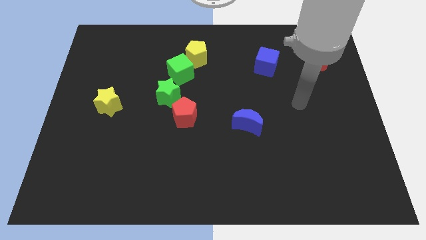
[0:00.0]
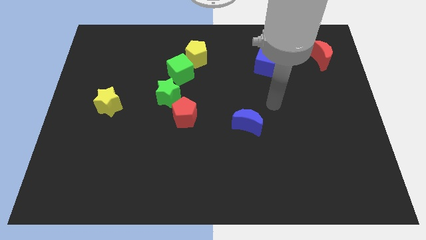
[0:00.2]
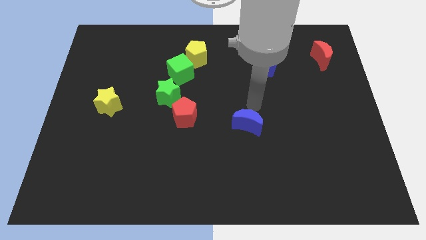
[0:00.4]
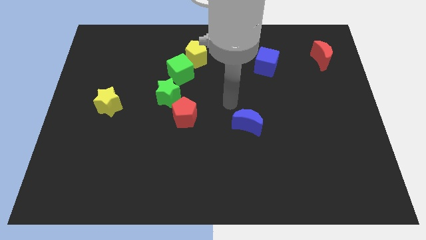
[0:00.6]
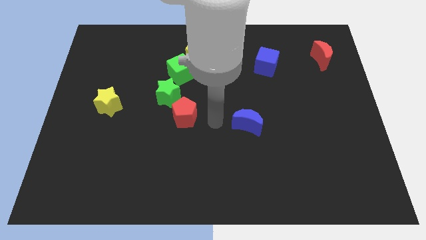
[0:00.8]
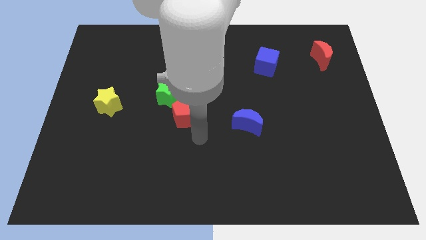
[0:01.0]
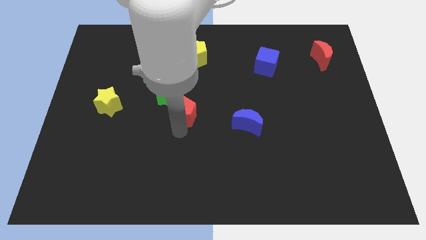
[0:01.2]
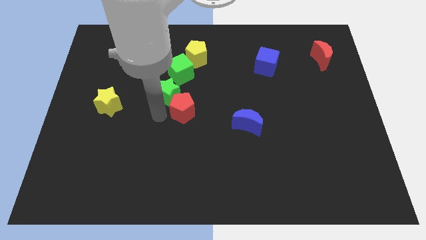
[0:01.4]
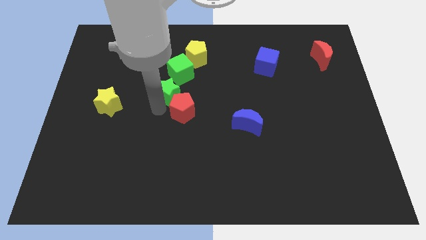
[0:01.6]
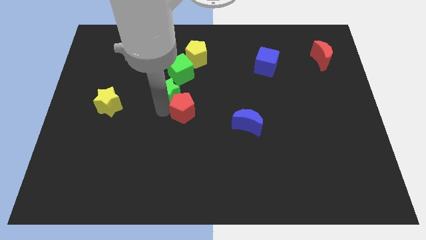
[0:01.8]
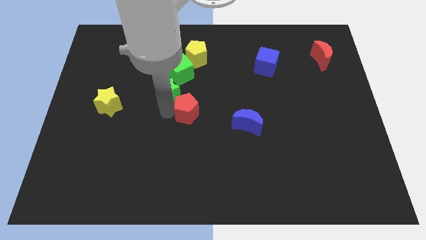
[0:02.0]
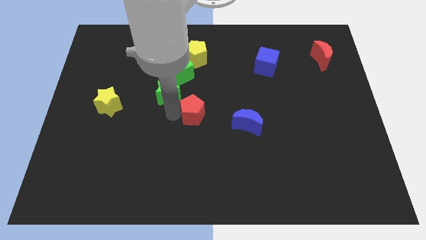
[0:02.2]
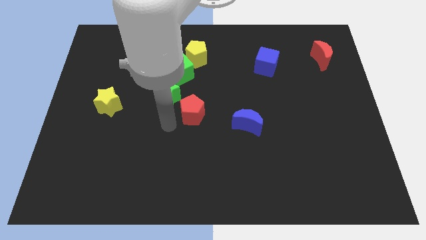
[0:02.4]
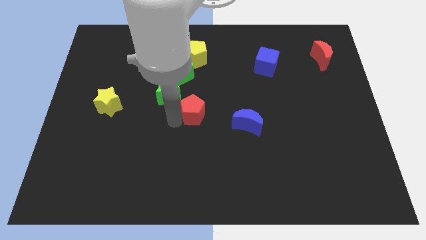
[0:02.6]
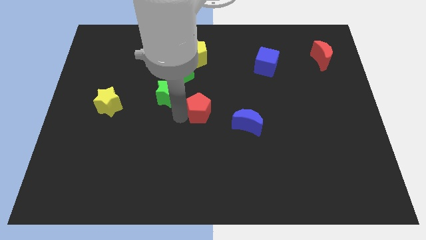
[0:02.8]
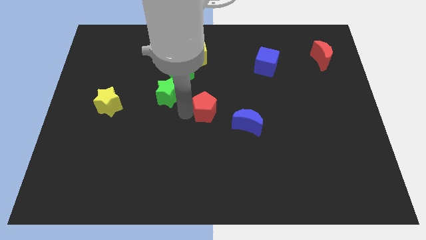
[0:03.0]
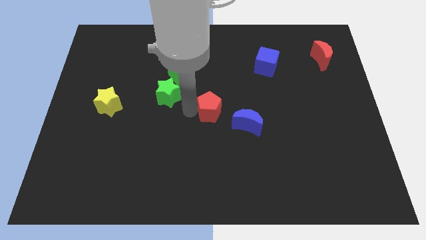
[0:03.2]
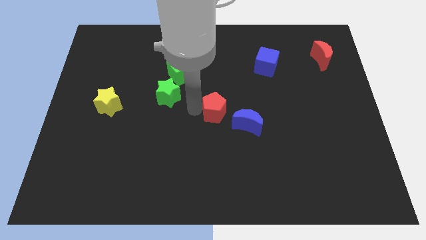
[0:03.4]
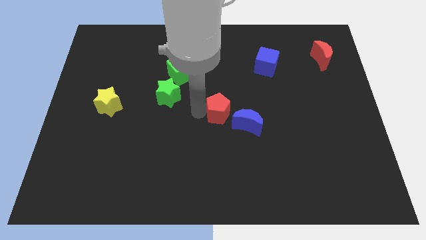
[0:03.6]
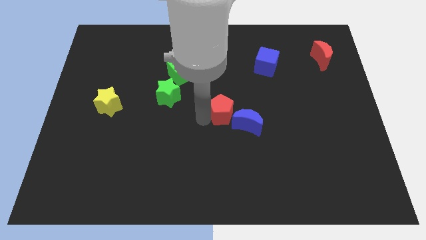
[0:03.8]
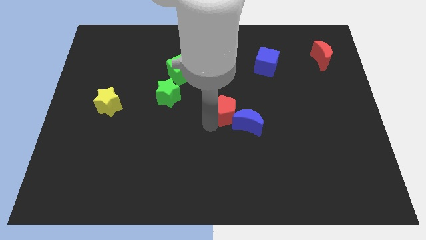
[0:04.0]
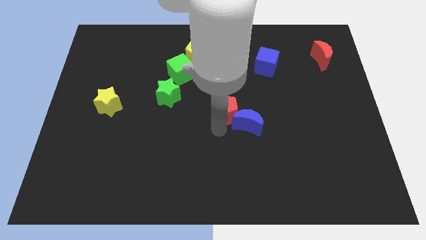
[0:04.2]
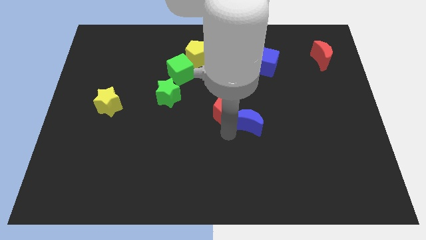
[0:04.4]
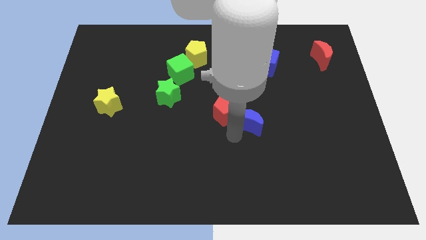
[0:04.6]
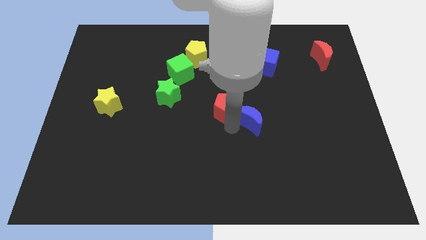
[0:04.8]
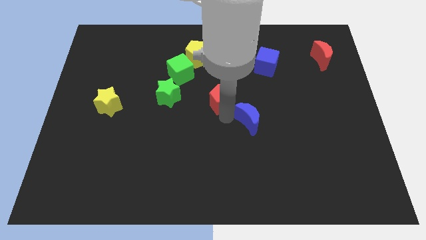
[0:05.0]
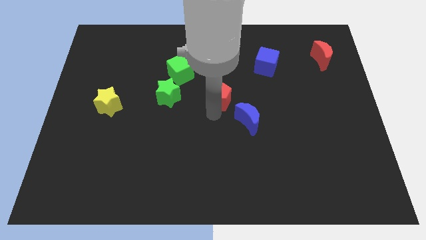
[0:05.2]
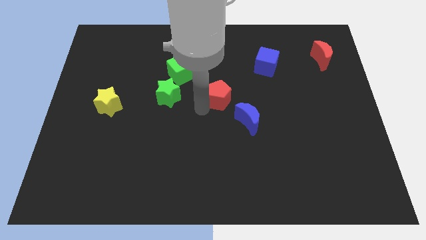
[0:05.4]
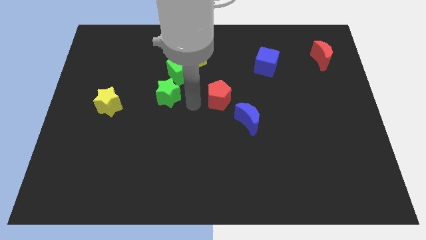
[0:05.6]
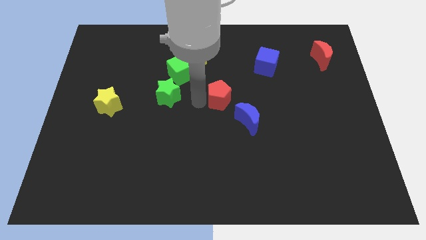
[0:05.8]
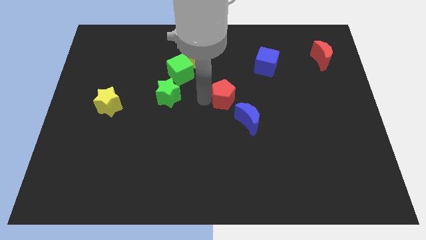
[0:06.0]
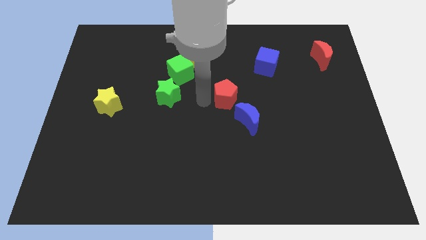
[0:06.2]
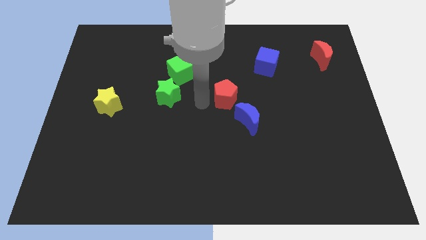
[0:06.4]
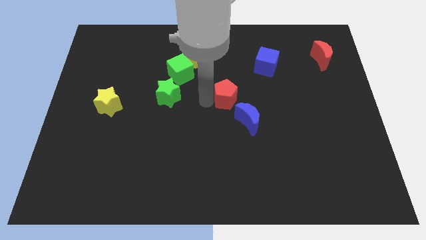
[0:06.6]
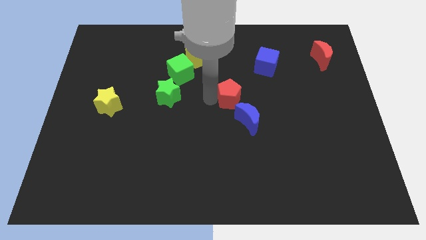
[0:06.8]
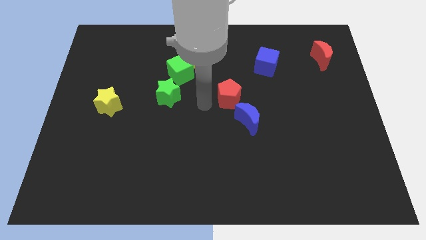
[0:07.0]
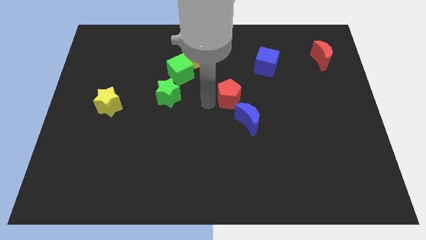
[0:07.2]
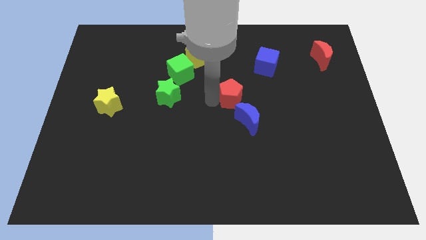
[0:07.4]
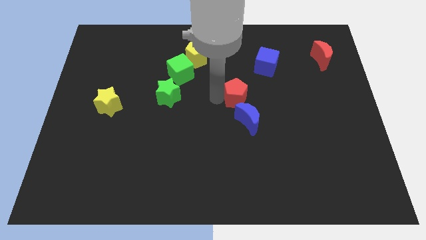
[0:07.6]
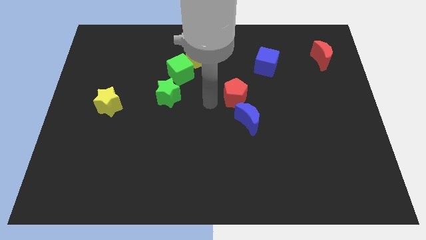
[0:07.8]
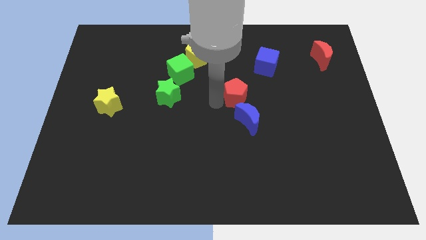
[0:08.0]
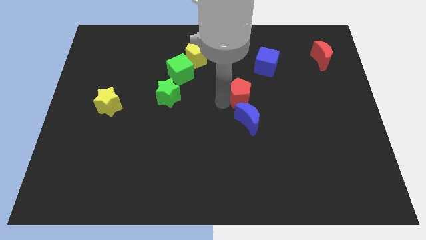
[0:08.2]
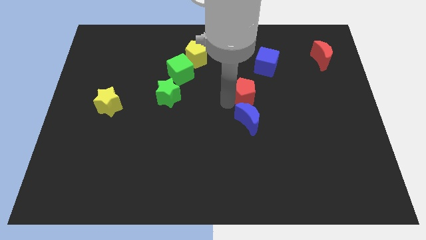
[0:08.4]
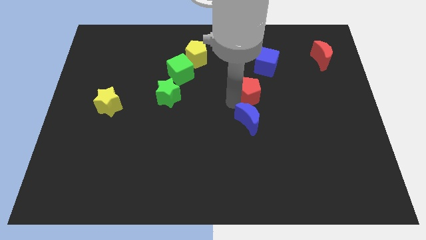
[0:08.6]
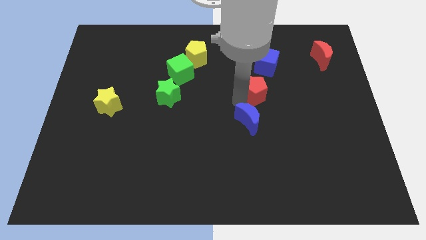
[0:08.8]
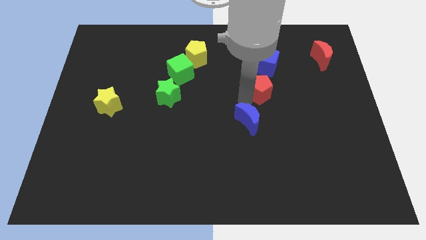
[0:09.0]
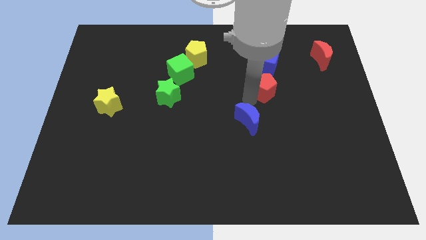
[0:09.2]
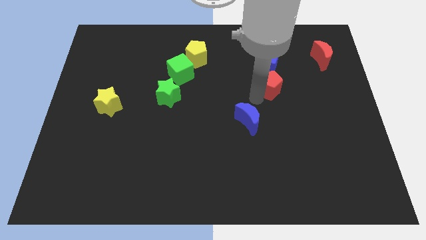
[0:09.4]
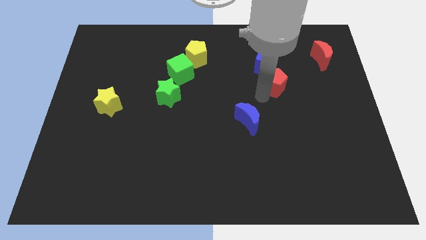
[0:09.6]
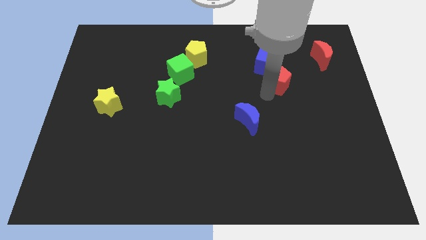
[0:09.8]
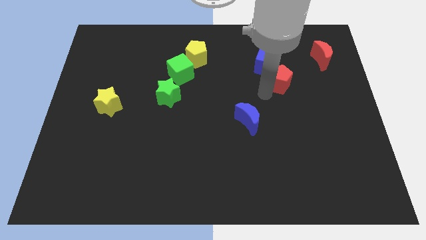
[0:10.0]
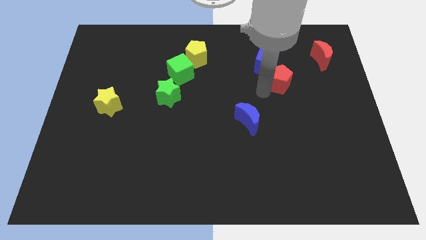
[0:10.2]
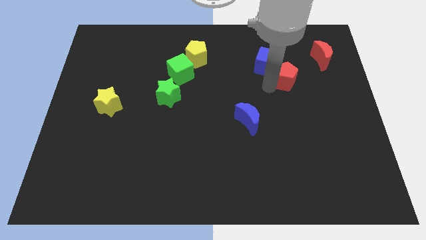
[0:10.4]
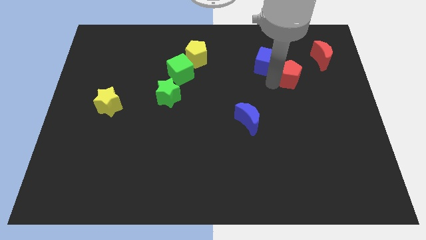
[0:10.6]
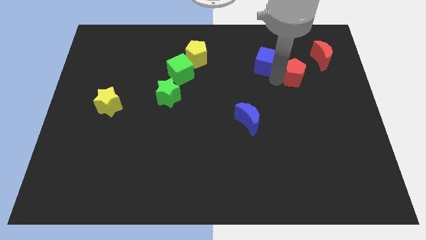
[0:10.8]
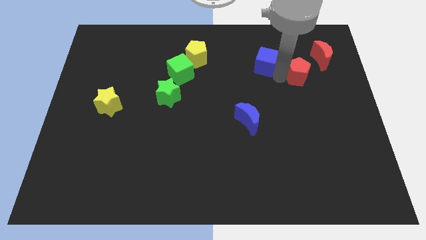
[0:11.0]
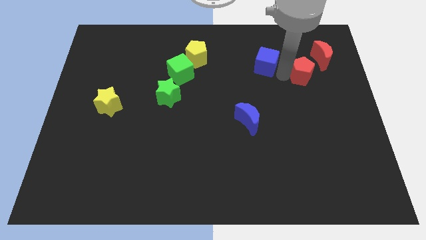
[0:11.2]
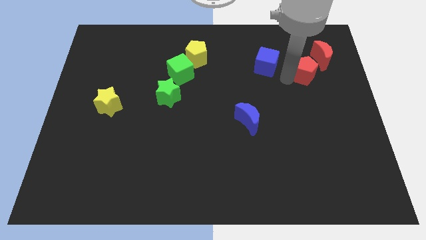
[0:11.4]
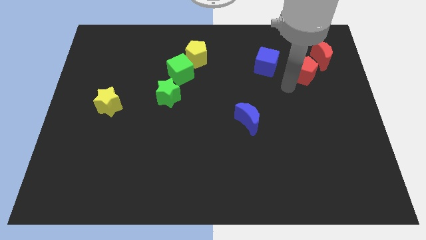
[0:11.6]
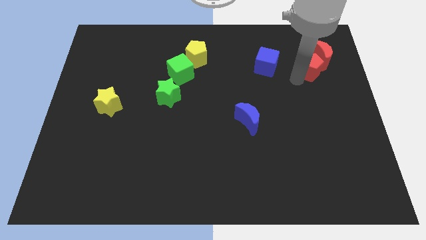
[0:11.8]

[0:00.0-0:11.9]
move the red pentagon next to the red moon

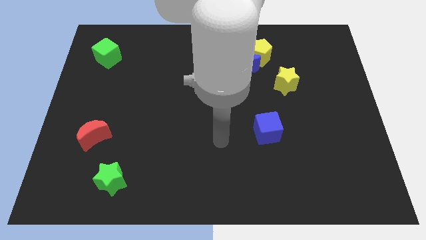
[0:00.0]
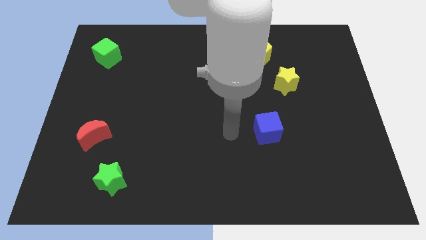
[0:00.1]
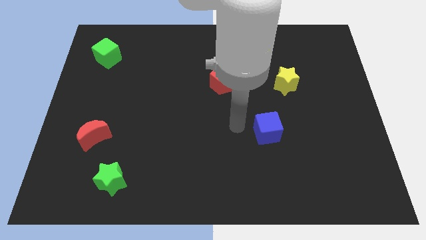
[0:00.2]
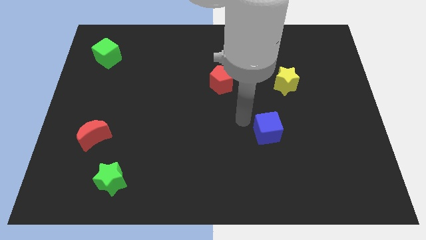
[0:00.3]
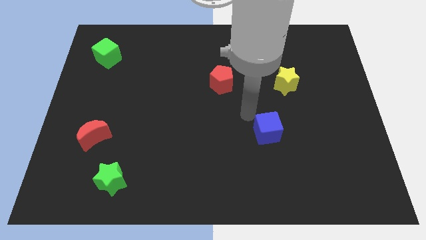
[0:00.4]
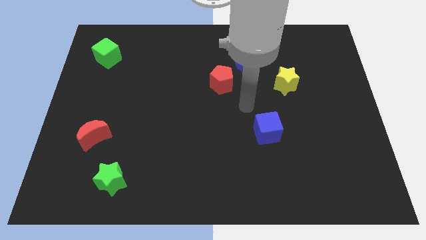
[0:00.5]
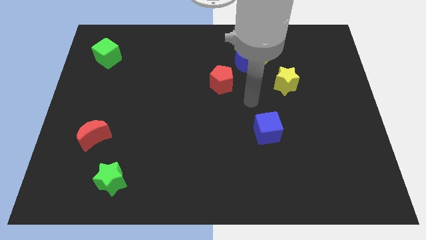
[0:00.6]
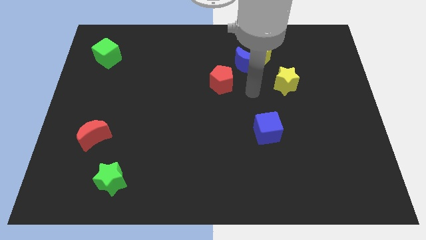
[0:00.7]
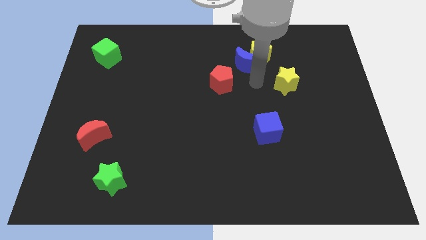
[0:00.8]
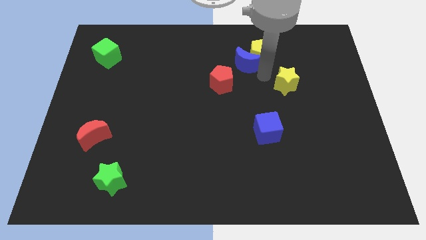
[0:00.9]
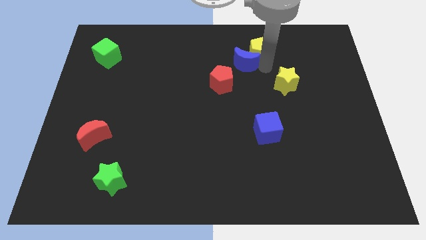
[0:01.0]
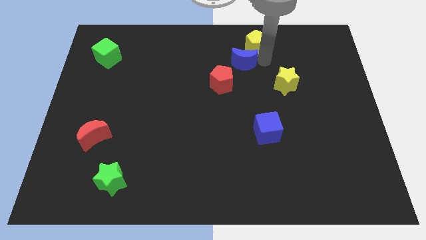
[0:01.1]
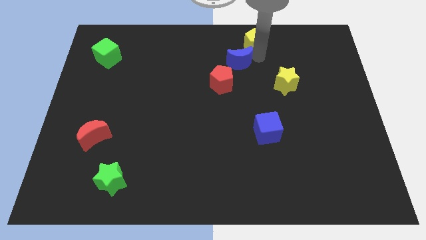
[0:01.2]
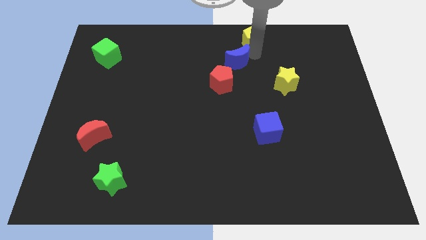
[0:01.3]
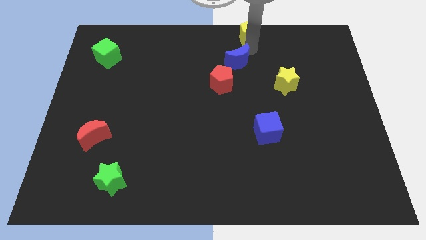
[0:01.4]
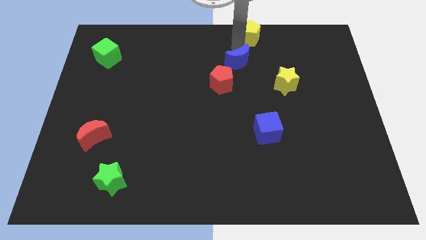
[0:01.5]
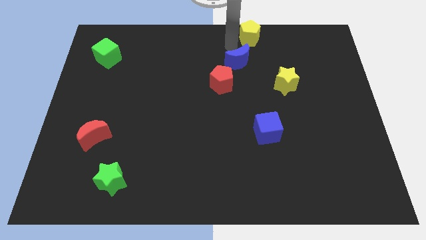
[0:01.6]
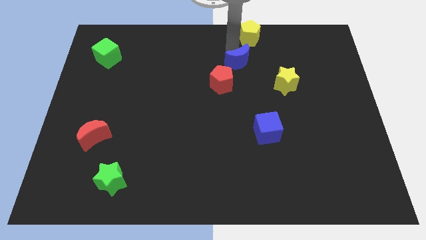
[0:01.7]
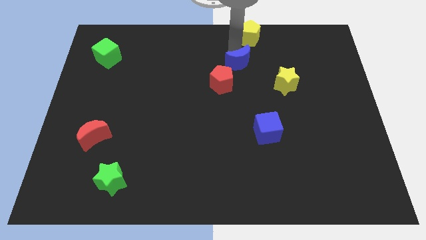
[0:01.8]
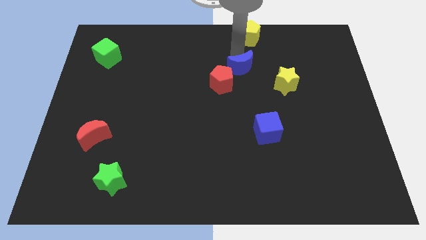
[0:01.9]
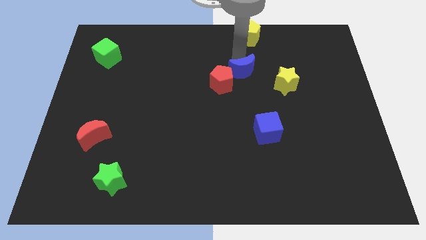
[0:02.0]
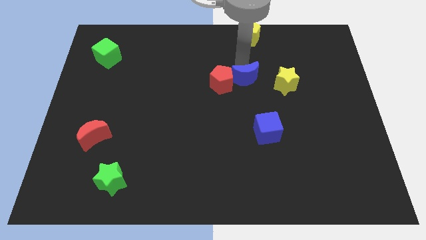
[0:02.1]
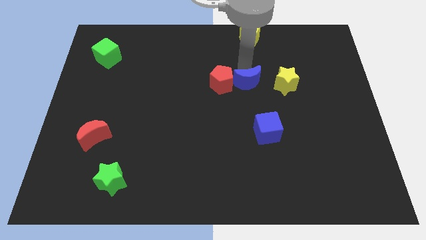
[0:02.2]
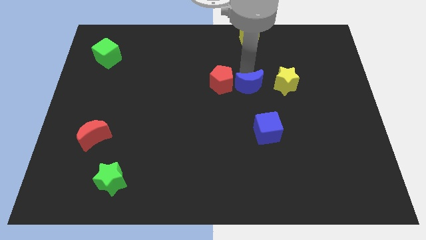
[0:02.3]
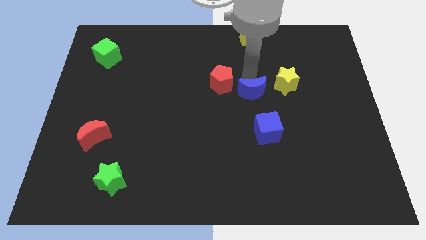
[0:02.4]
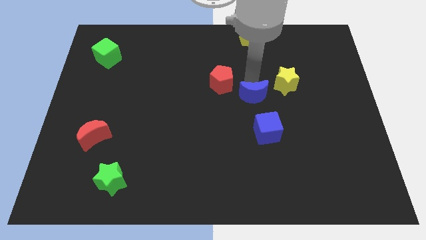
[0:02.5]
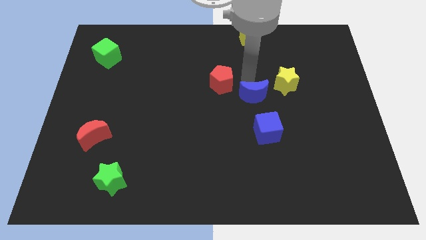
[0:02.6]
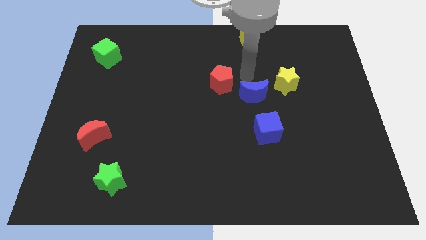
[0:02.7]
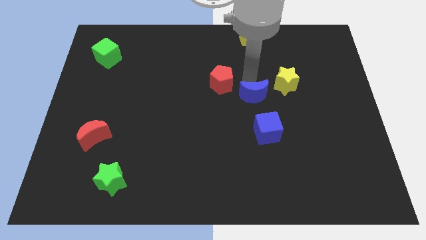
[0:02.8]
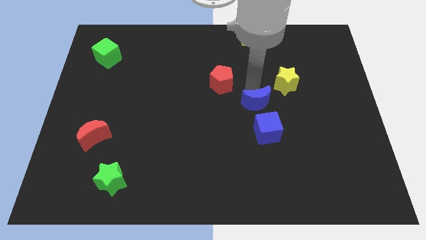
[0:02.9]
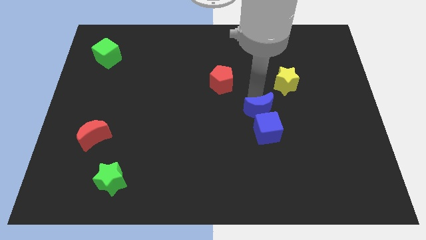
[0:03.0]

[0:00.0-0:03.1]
move the blue moon next to the blue cube
